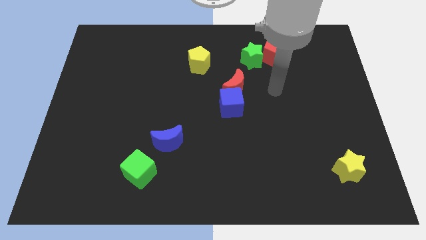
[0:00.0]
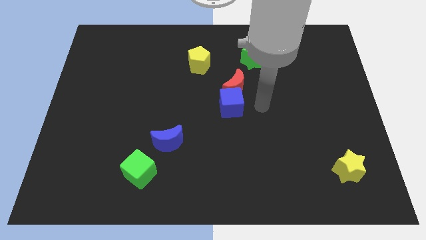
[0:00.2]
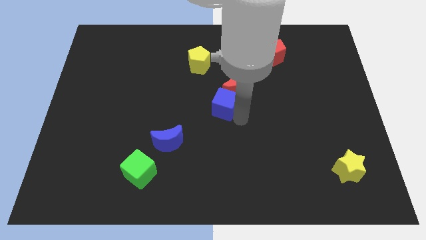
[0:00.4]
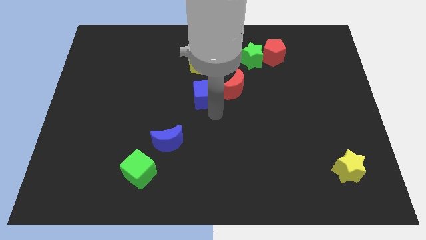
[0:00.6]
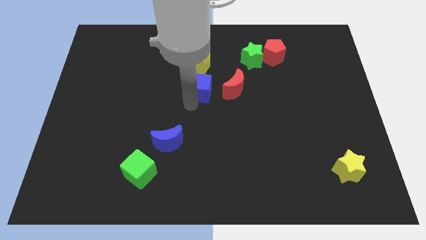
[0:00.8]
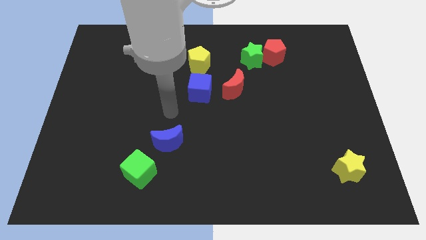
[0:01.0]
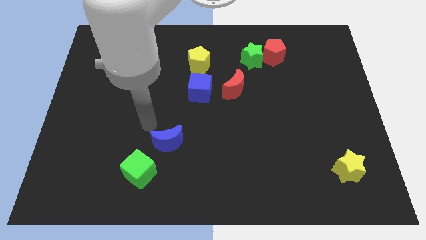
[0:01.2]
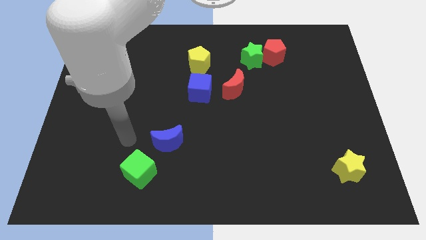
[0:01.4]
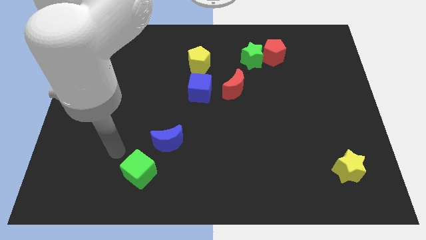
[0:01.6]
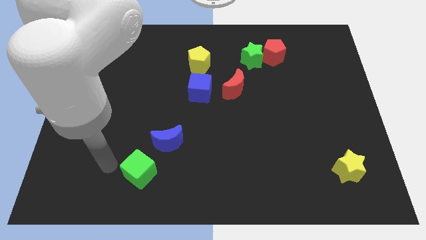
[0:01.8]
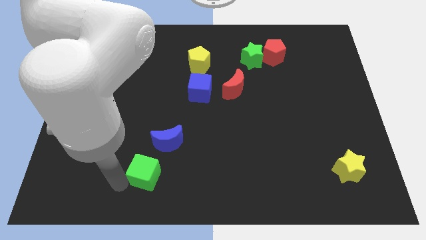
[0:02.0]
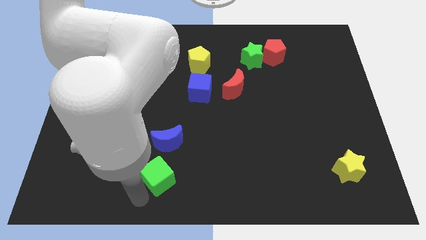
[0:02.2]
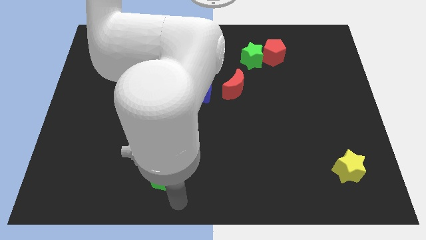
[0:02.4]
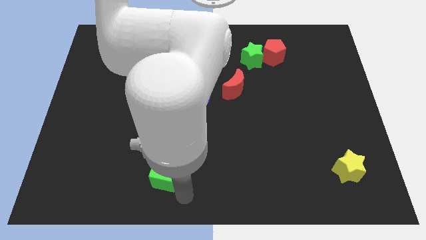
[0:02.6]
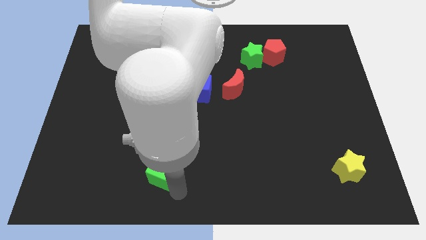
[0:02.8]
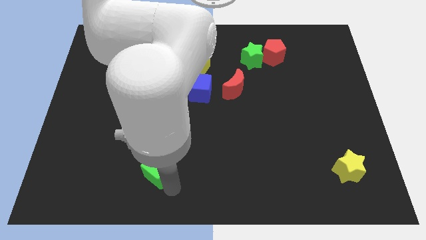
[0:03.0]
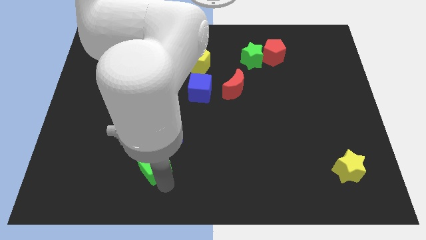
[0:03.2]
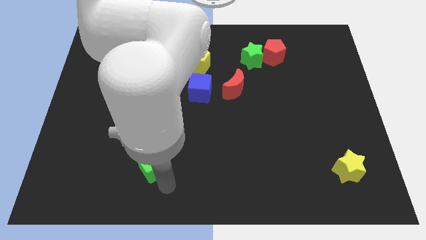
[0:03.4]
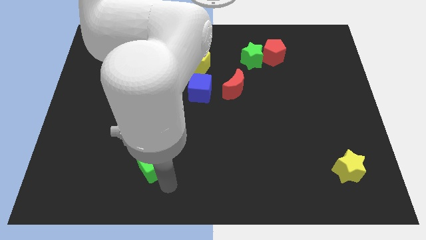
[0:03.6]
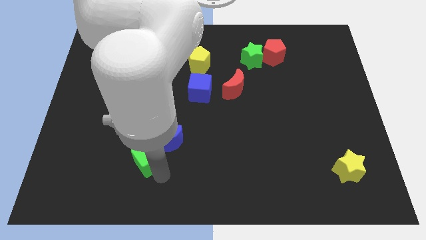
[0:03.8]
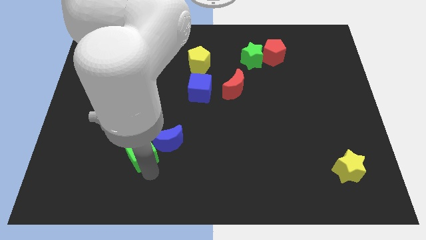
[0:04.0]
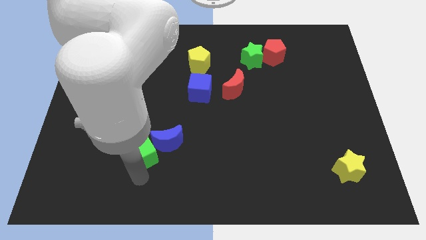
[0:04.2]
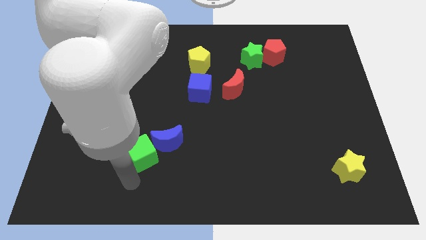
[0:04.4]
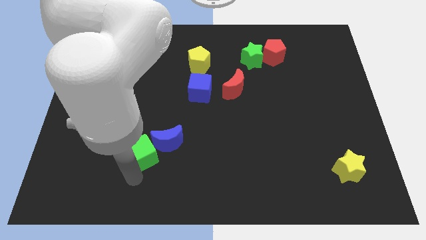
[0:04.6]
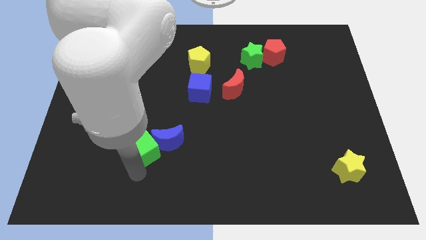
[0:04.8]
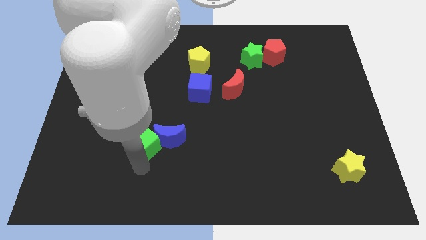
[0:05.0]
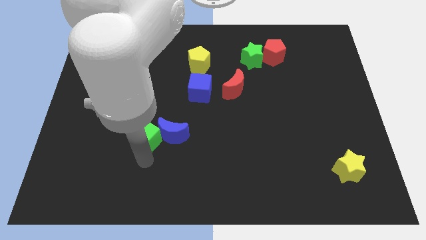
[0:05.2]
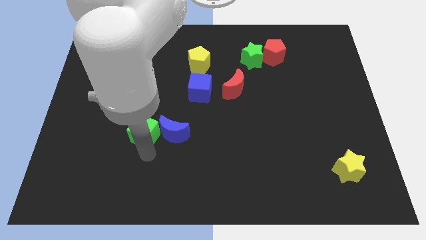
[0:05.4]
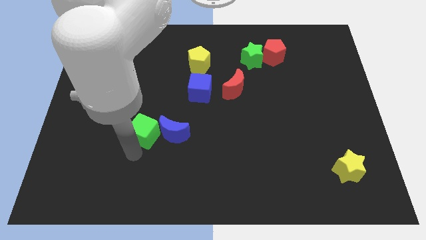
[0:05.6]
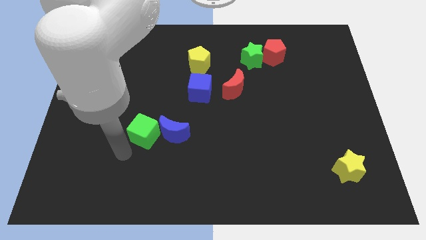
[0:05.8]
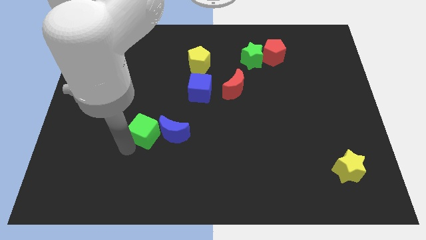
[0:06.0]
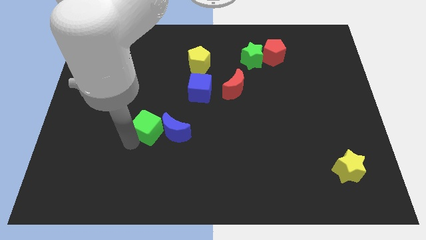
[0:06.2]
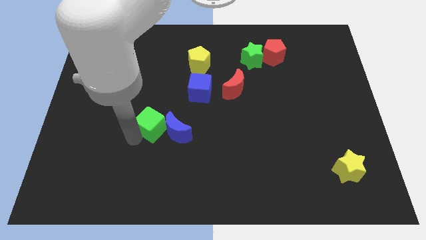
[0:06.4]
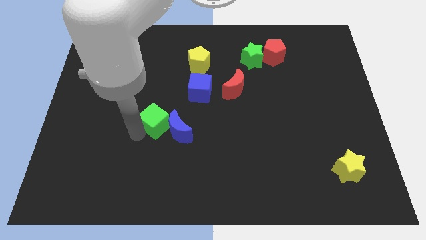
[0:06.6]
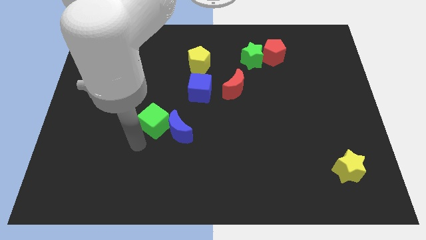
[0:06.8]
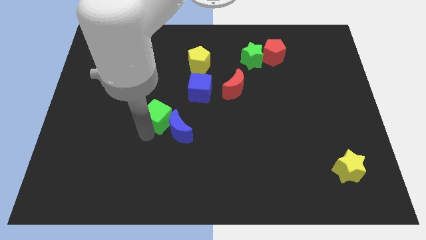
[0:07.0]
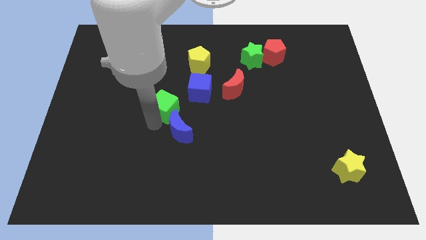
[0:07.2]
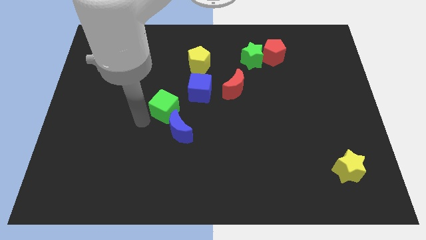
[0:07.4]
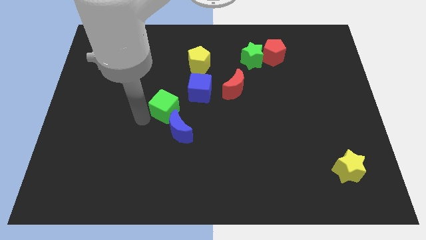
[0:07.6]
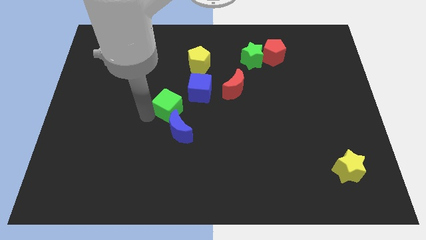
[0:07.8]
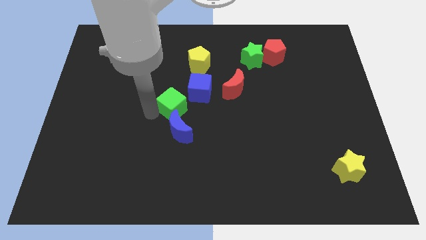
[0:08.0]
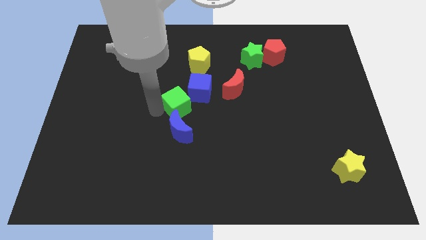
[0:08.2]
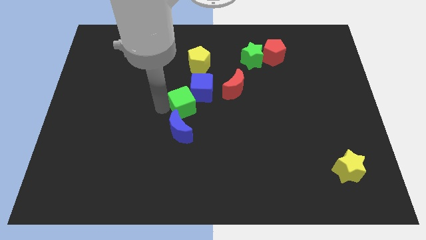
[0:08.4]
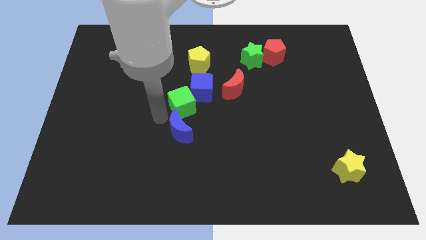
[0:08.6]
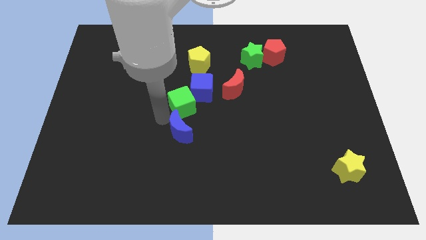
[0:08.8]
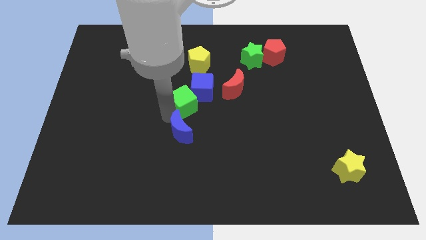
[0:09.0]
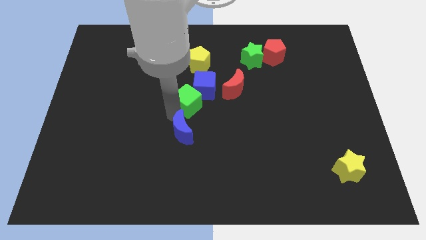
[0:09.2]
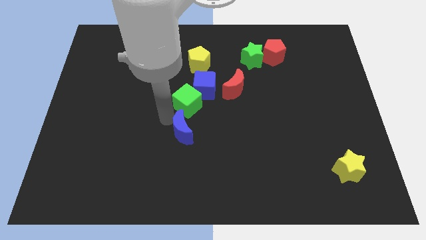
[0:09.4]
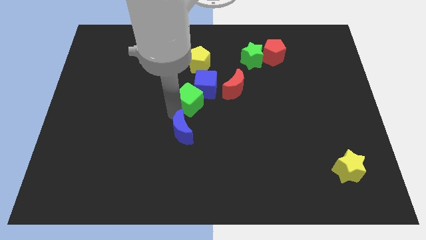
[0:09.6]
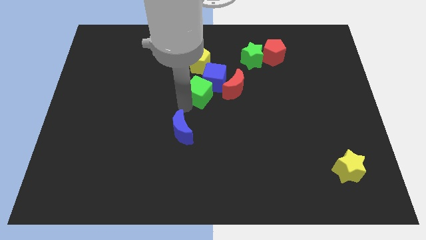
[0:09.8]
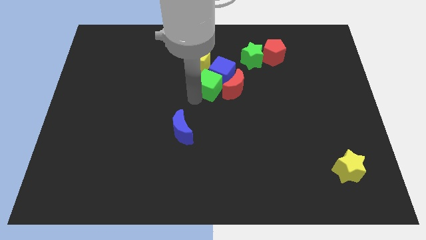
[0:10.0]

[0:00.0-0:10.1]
push the green cube to the bottom right of the yellow pentagon

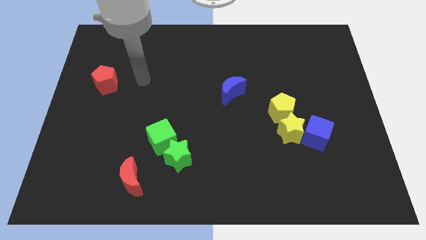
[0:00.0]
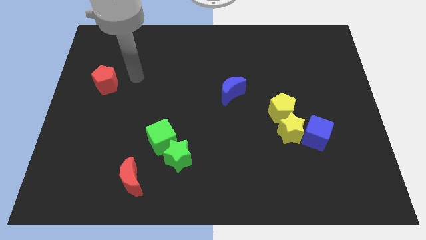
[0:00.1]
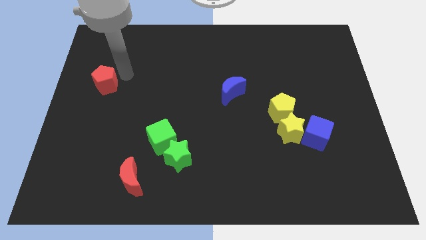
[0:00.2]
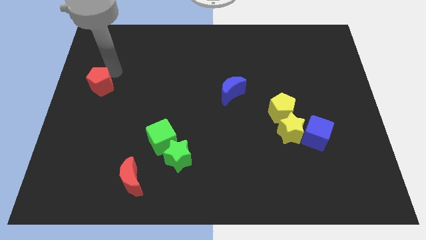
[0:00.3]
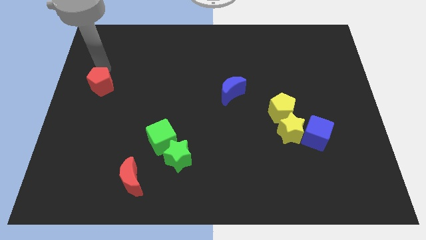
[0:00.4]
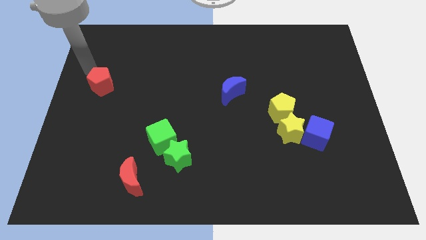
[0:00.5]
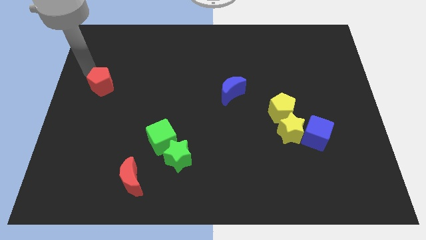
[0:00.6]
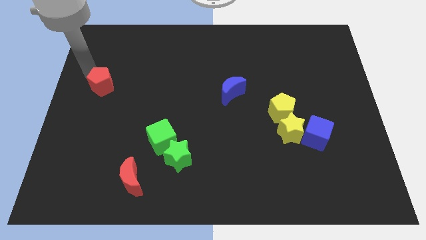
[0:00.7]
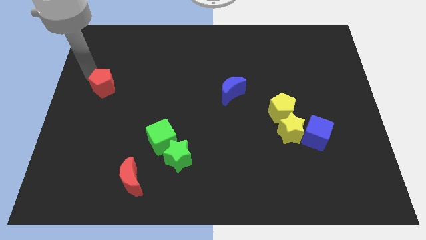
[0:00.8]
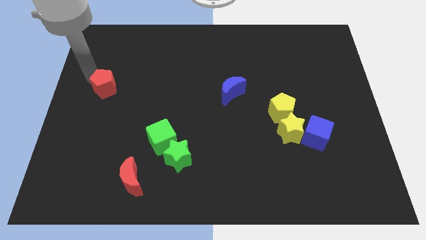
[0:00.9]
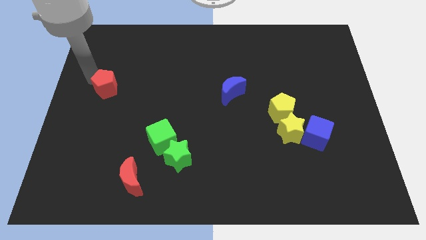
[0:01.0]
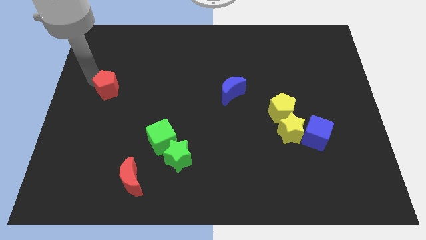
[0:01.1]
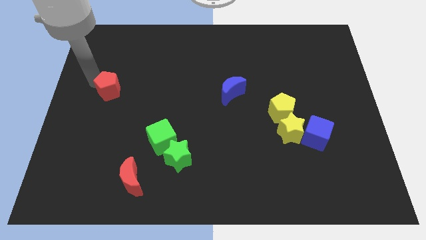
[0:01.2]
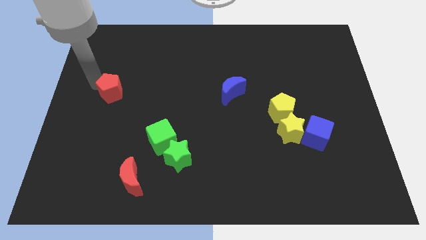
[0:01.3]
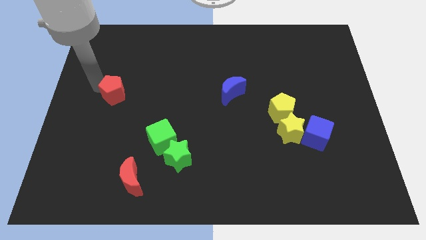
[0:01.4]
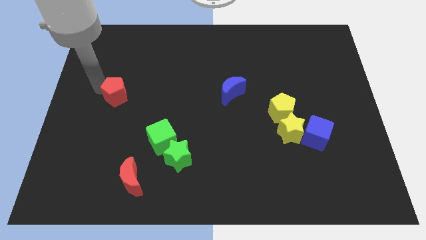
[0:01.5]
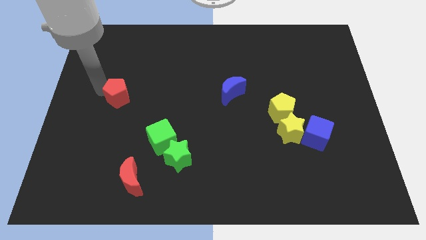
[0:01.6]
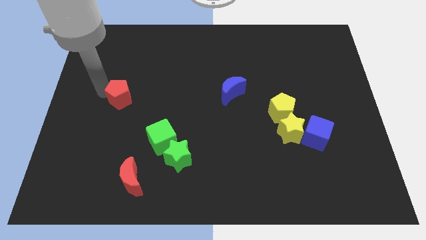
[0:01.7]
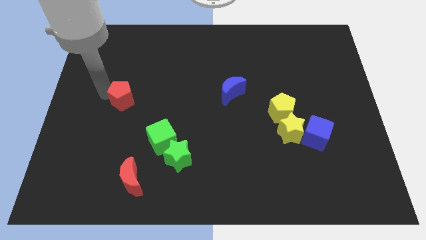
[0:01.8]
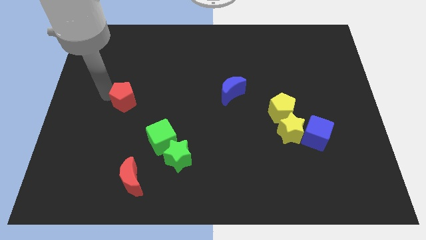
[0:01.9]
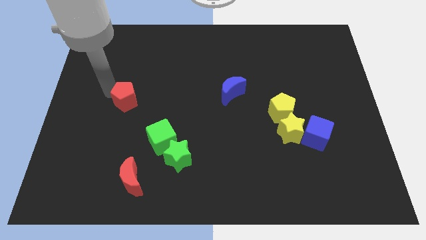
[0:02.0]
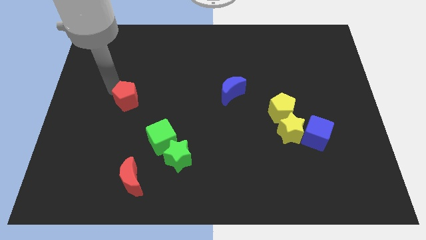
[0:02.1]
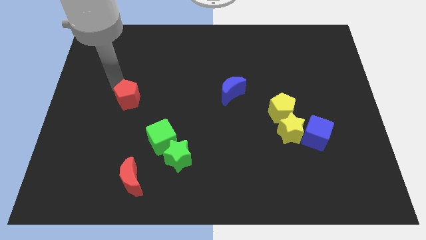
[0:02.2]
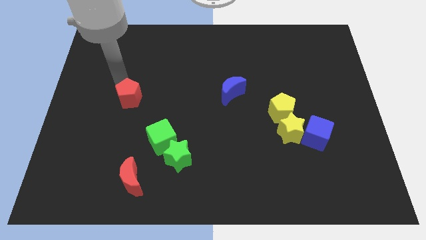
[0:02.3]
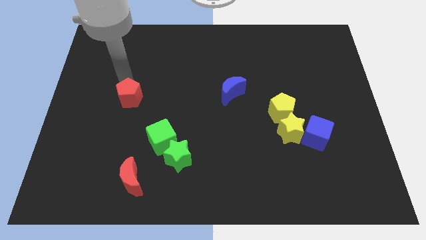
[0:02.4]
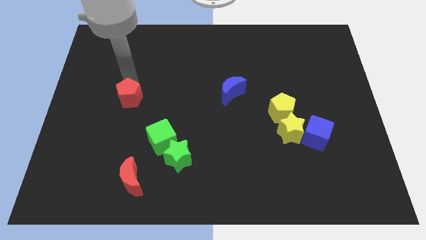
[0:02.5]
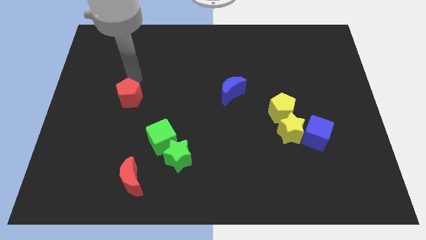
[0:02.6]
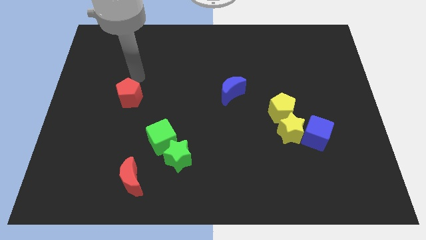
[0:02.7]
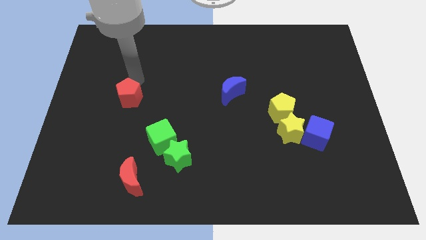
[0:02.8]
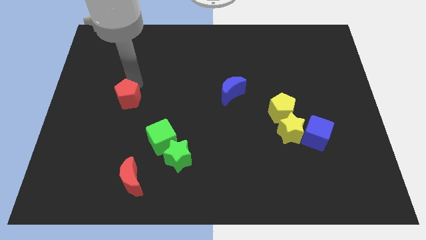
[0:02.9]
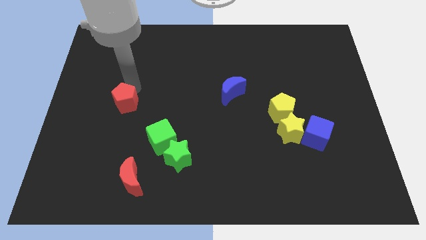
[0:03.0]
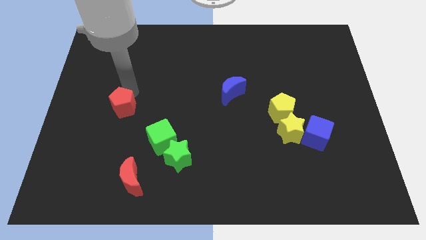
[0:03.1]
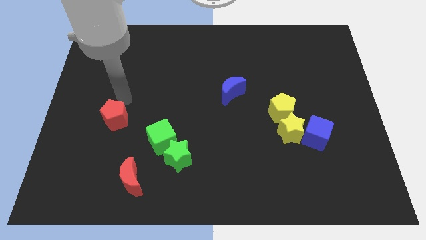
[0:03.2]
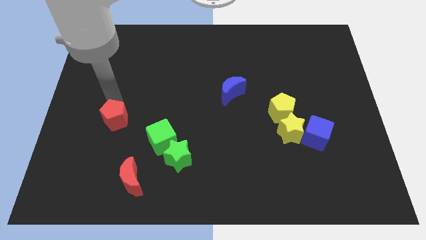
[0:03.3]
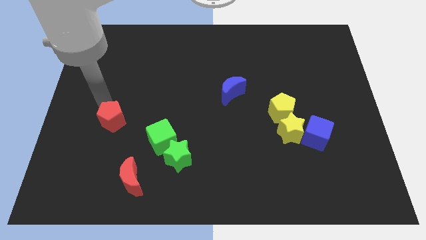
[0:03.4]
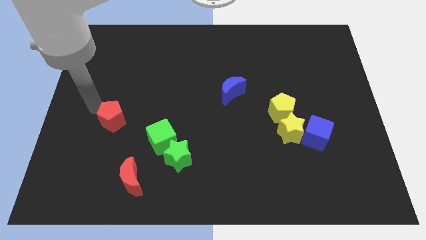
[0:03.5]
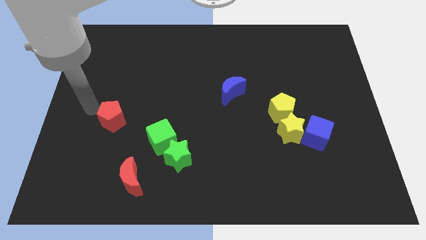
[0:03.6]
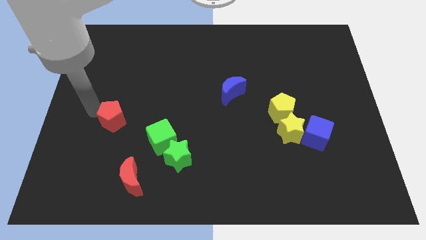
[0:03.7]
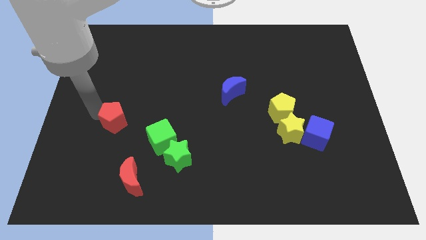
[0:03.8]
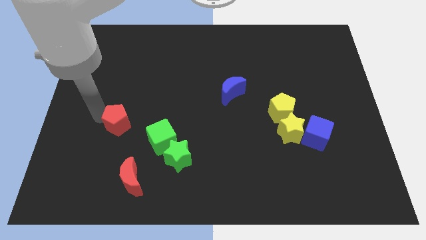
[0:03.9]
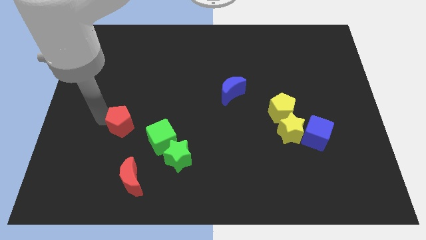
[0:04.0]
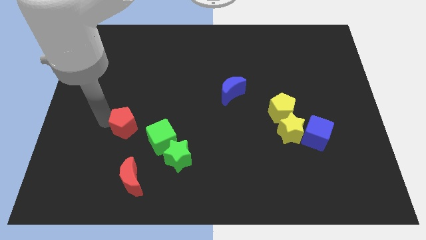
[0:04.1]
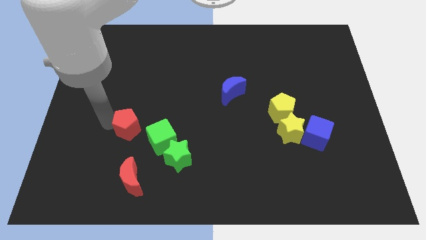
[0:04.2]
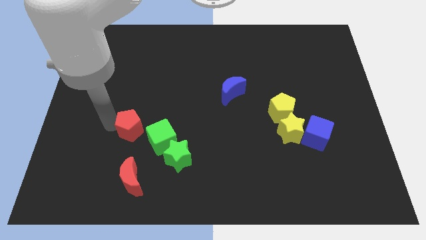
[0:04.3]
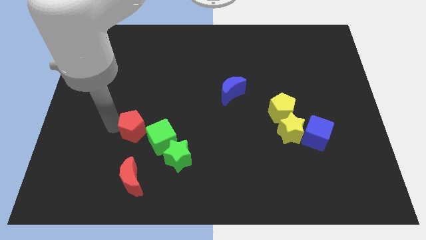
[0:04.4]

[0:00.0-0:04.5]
slide the red pentagon to the top left side of the green star
